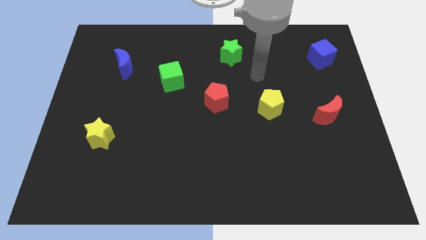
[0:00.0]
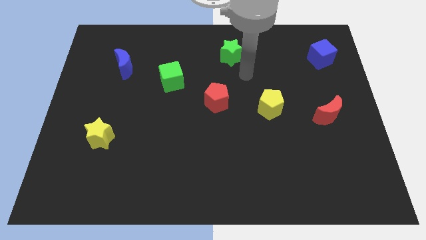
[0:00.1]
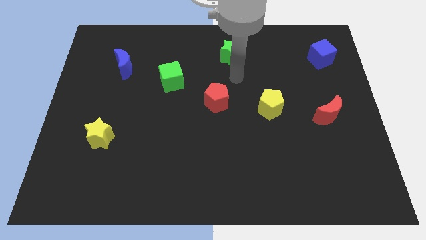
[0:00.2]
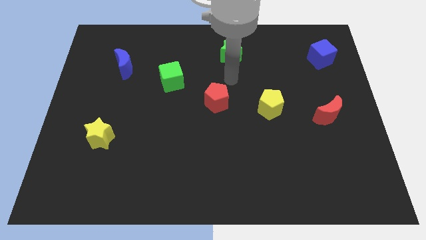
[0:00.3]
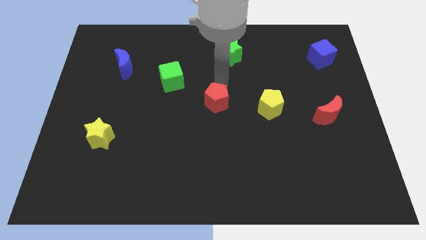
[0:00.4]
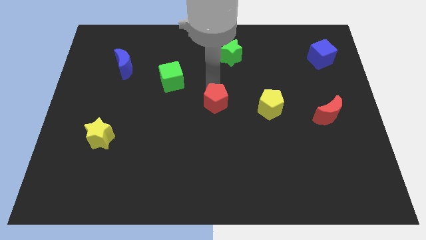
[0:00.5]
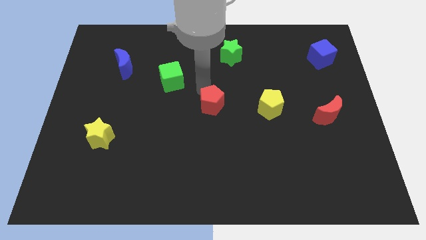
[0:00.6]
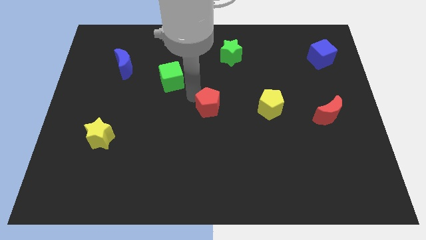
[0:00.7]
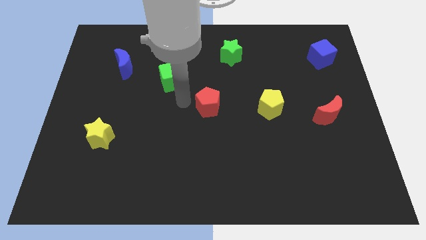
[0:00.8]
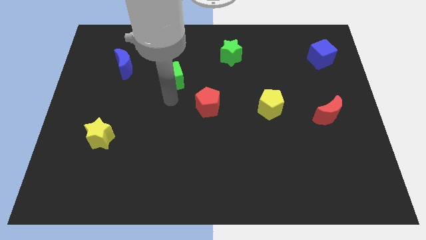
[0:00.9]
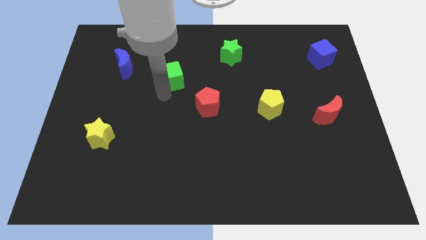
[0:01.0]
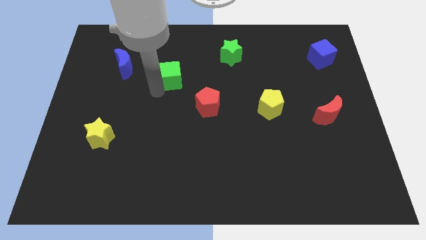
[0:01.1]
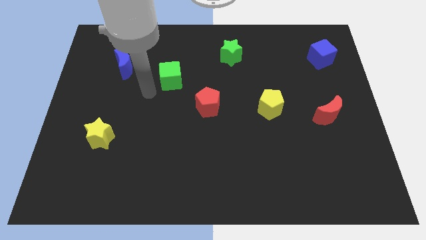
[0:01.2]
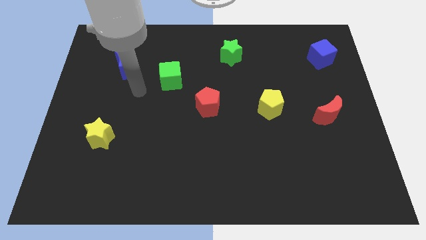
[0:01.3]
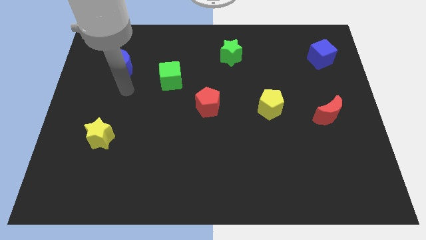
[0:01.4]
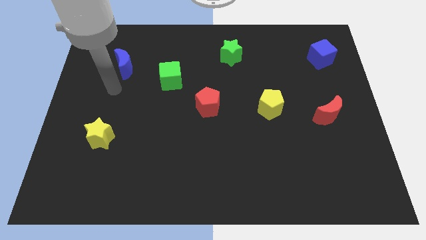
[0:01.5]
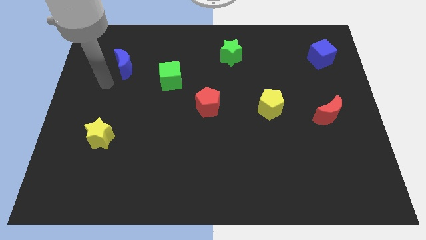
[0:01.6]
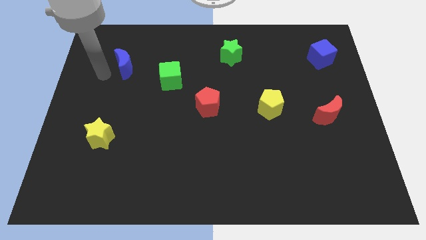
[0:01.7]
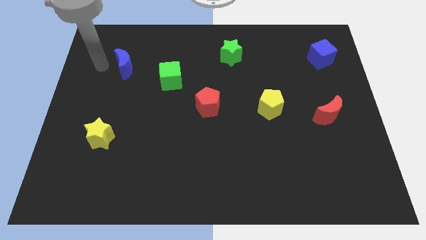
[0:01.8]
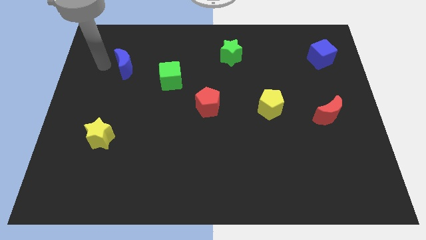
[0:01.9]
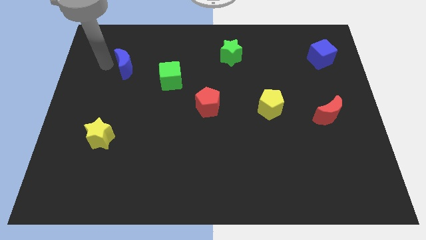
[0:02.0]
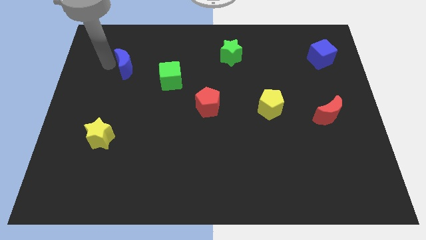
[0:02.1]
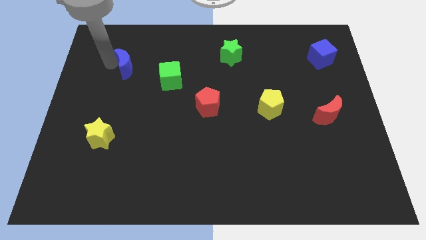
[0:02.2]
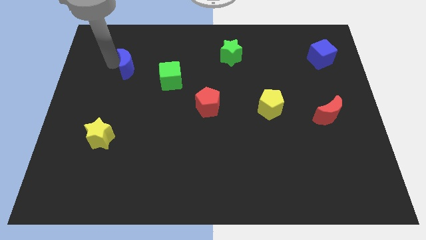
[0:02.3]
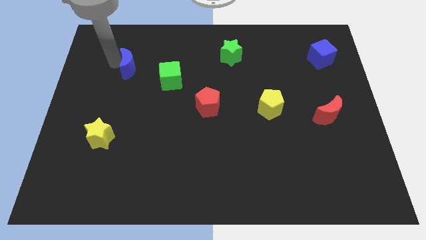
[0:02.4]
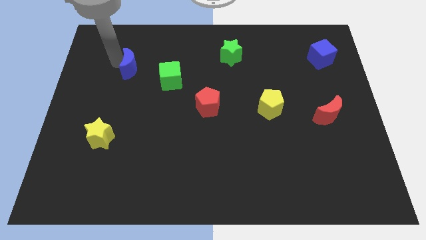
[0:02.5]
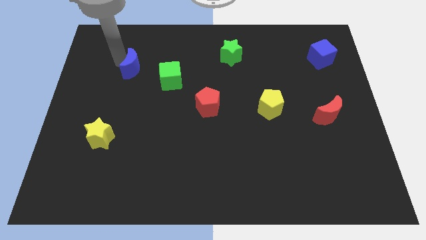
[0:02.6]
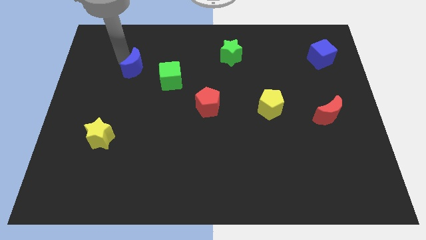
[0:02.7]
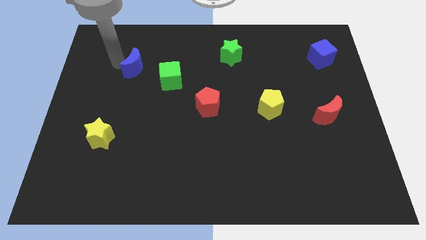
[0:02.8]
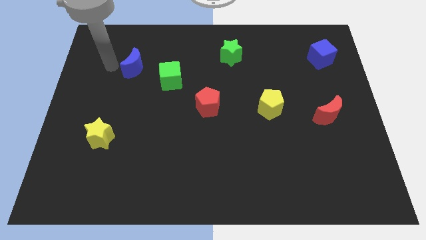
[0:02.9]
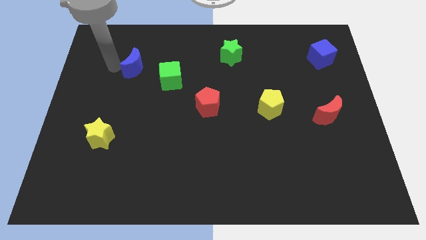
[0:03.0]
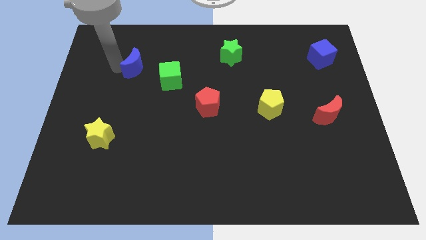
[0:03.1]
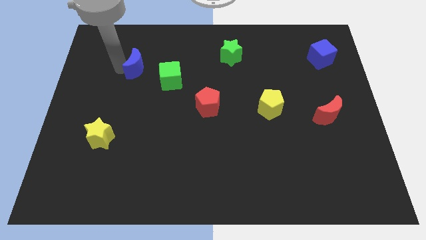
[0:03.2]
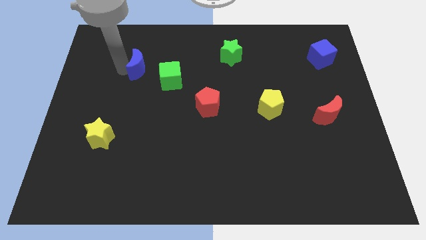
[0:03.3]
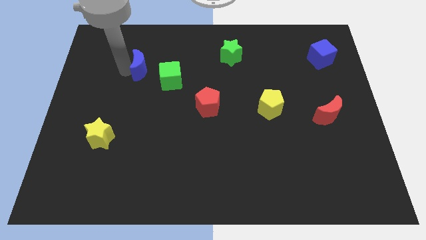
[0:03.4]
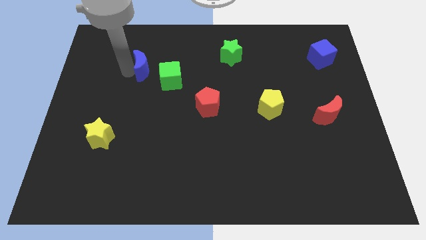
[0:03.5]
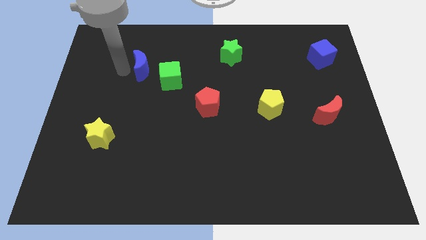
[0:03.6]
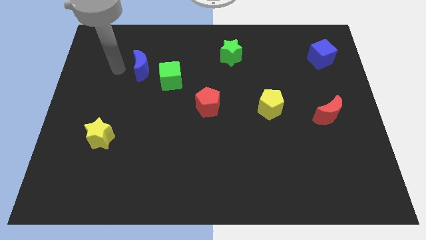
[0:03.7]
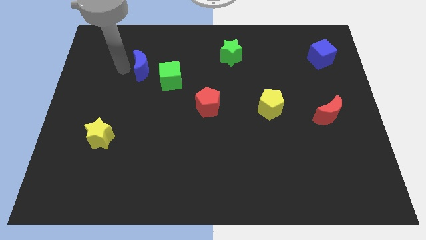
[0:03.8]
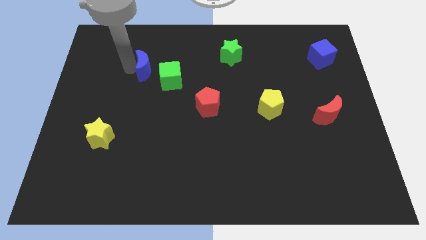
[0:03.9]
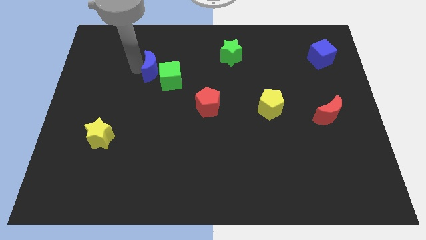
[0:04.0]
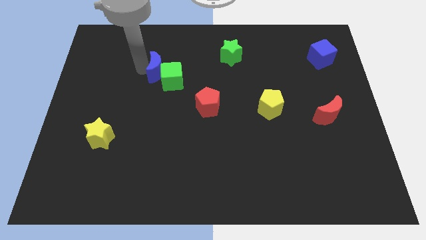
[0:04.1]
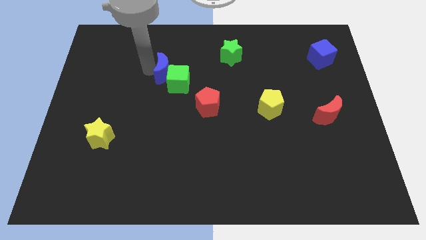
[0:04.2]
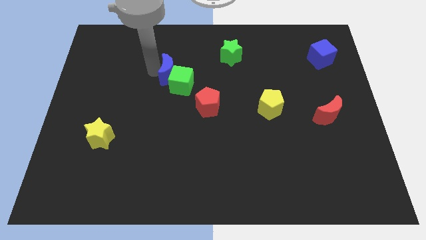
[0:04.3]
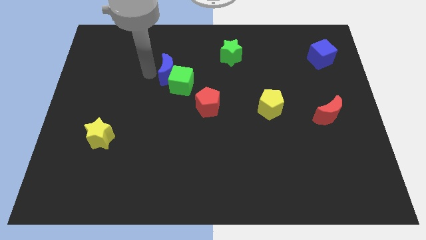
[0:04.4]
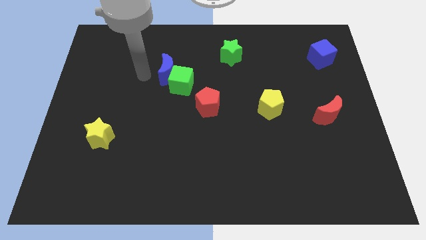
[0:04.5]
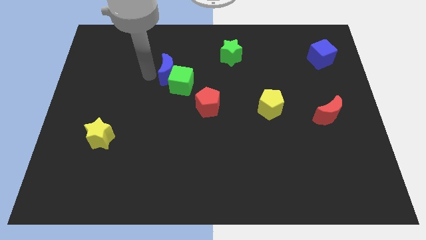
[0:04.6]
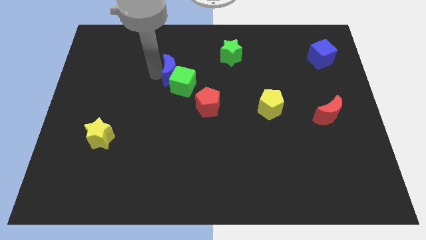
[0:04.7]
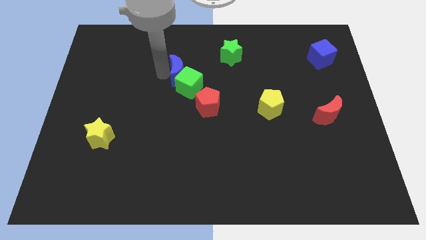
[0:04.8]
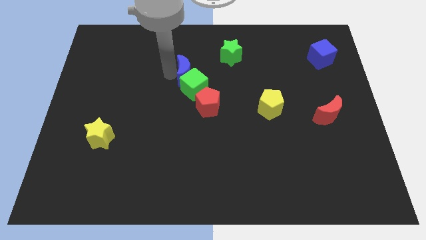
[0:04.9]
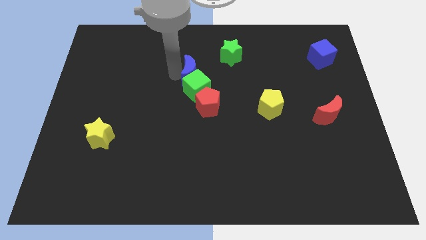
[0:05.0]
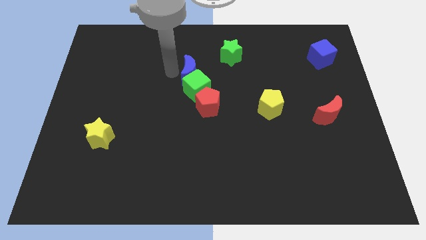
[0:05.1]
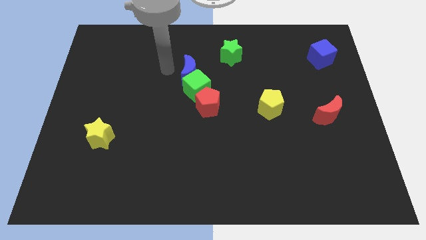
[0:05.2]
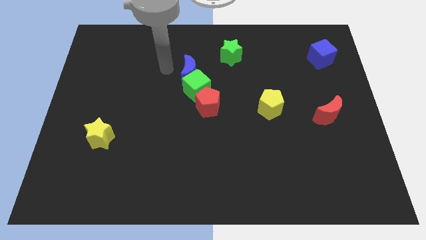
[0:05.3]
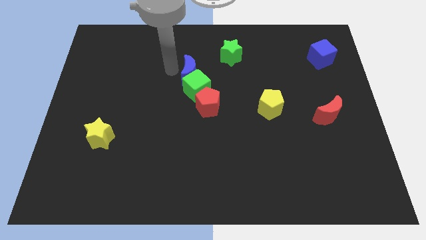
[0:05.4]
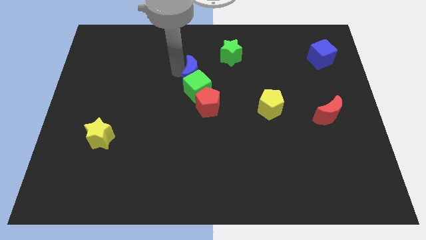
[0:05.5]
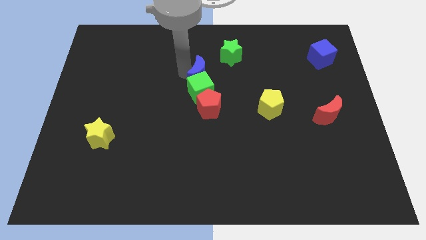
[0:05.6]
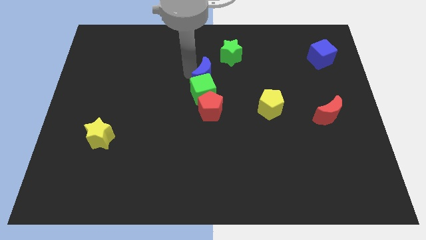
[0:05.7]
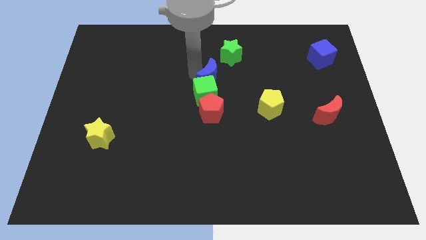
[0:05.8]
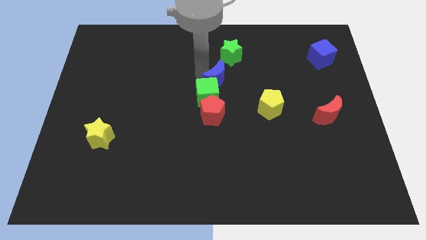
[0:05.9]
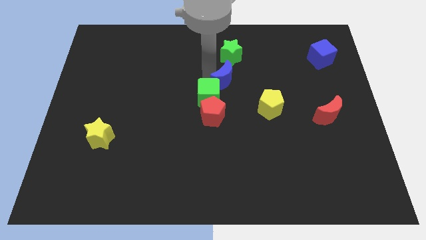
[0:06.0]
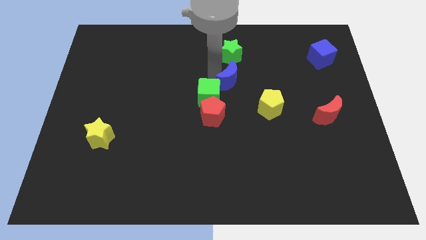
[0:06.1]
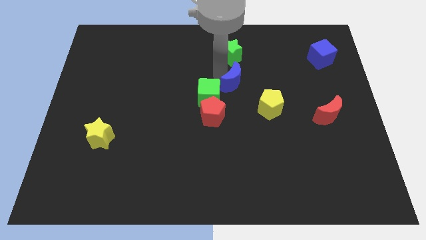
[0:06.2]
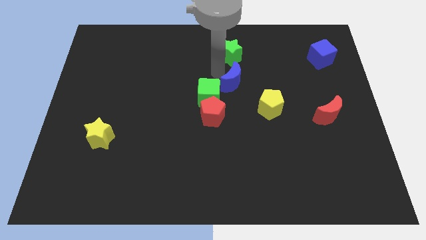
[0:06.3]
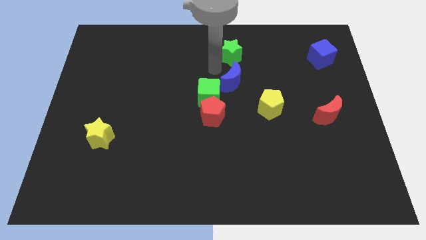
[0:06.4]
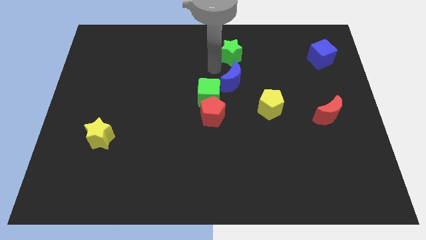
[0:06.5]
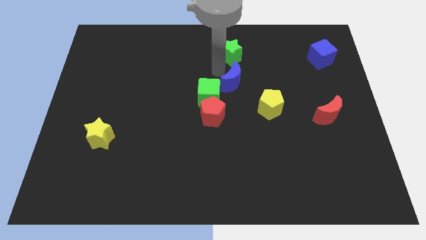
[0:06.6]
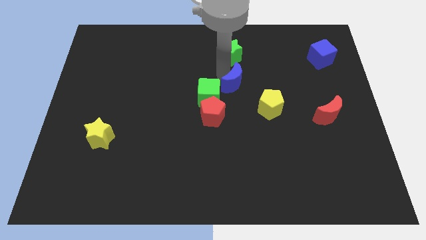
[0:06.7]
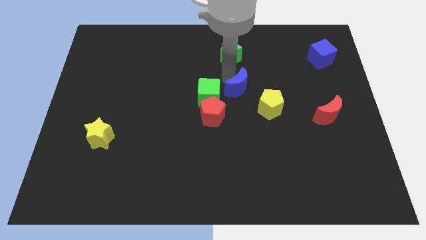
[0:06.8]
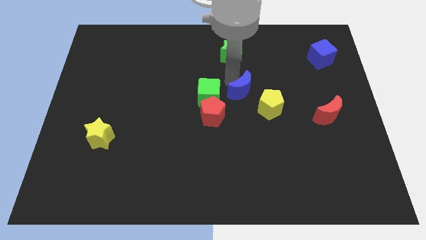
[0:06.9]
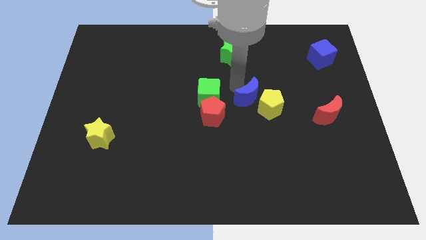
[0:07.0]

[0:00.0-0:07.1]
put the blue moon to the yellow pentagon

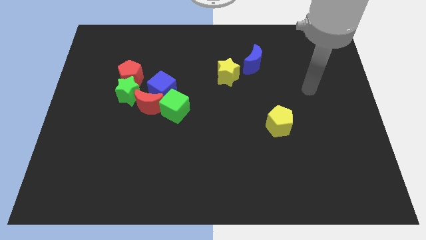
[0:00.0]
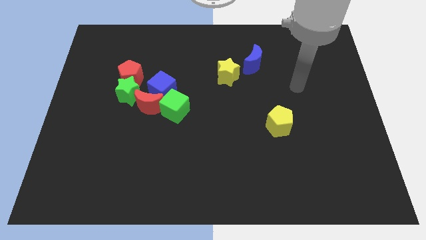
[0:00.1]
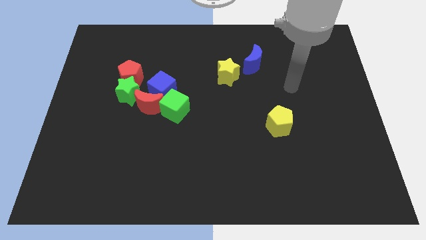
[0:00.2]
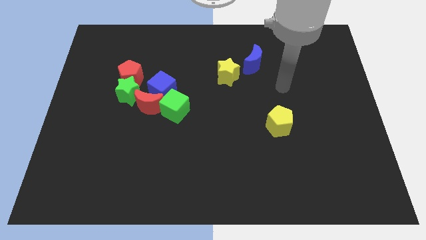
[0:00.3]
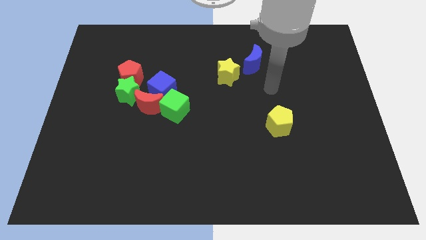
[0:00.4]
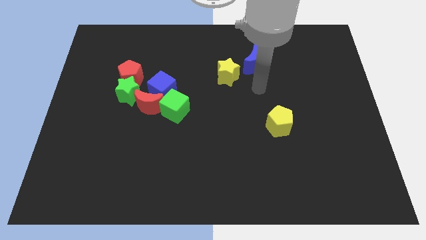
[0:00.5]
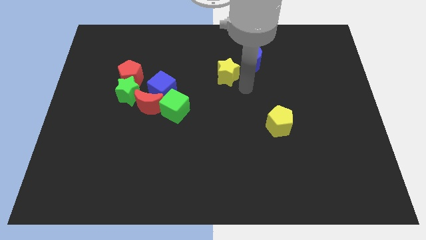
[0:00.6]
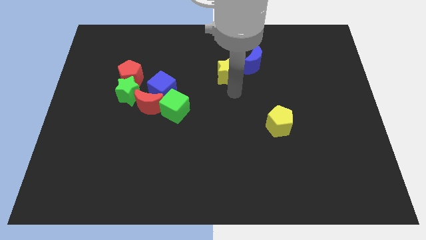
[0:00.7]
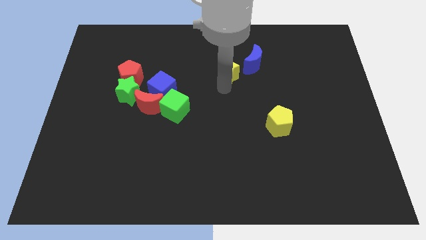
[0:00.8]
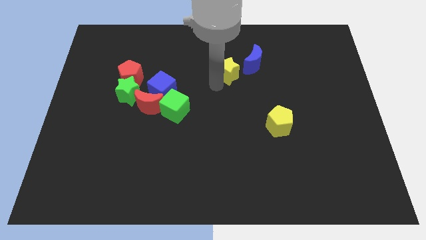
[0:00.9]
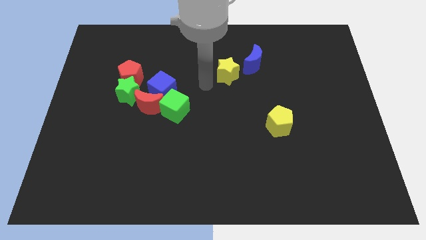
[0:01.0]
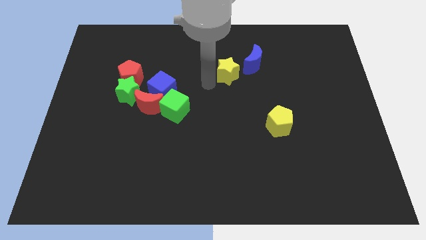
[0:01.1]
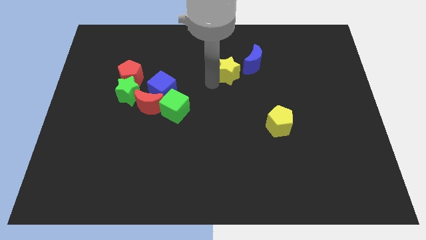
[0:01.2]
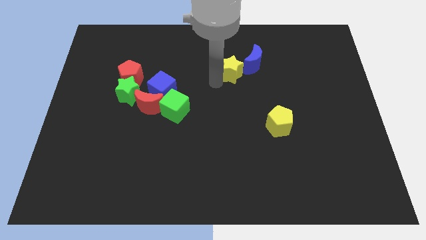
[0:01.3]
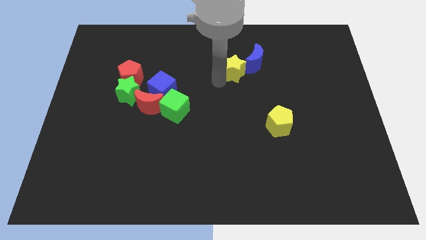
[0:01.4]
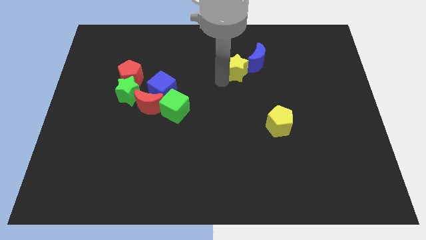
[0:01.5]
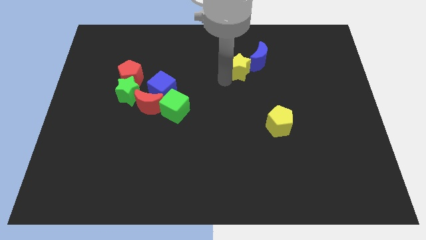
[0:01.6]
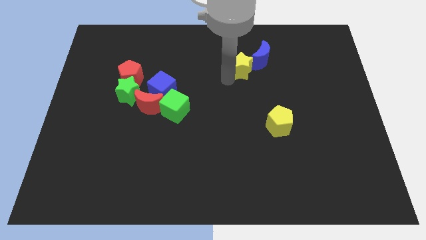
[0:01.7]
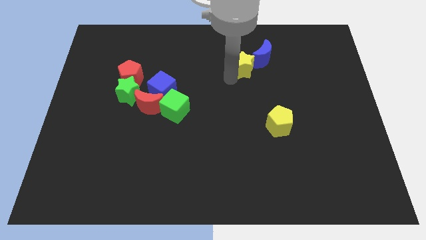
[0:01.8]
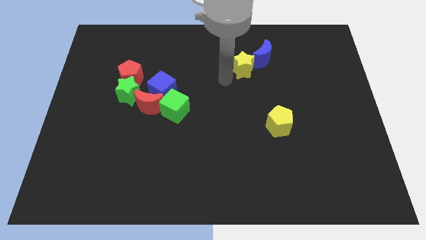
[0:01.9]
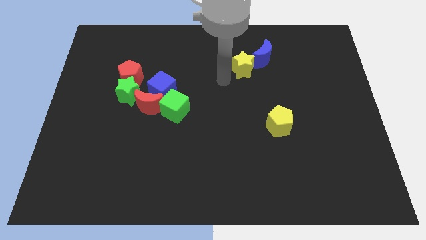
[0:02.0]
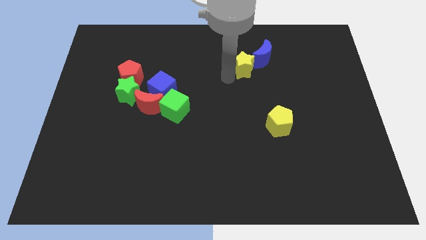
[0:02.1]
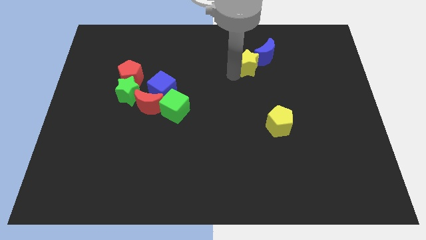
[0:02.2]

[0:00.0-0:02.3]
move the yellow star towards the blue moon
